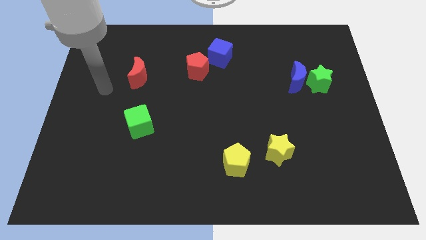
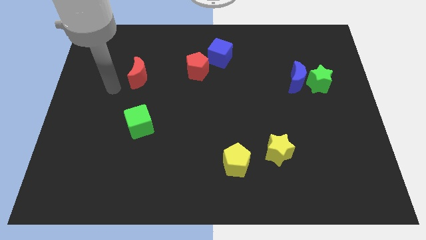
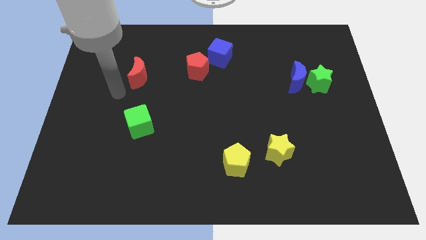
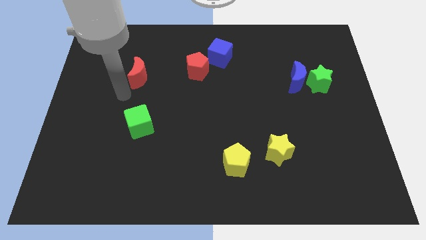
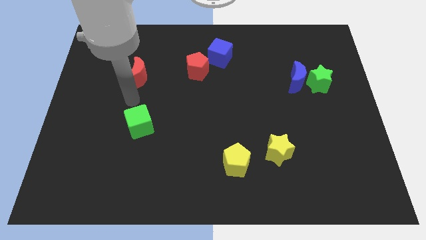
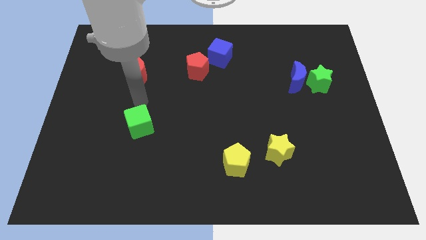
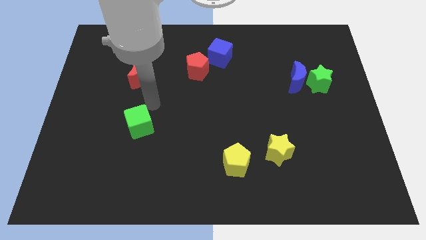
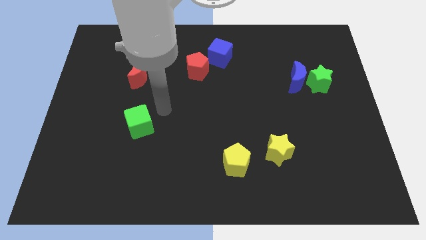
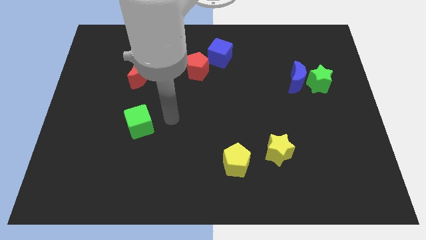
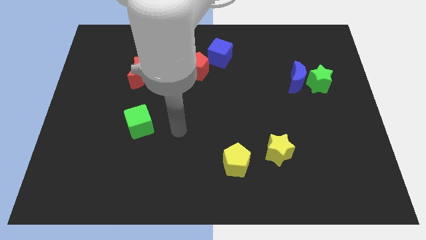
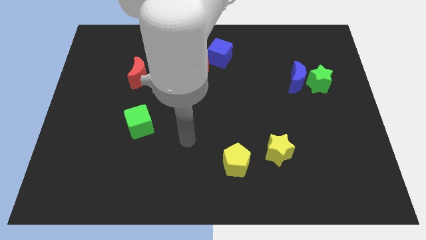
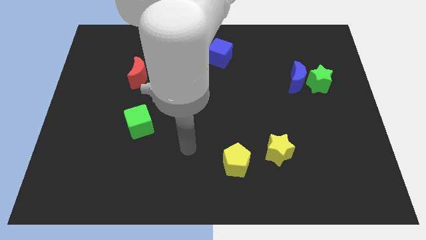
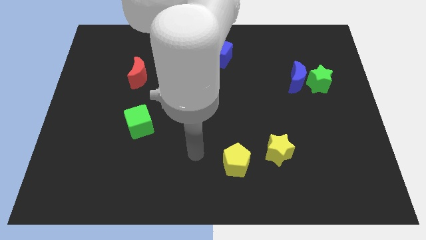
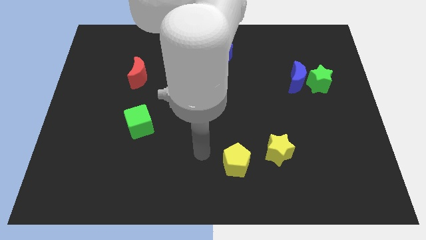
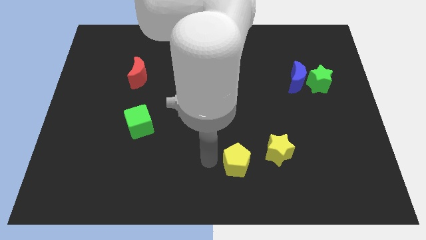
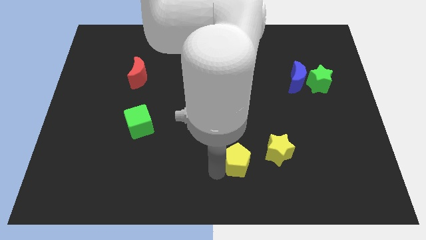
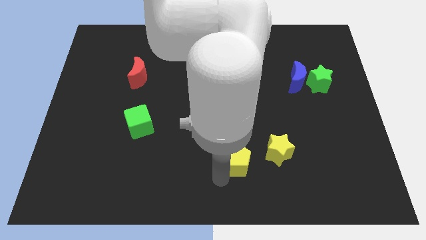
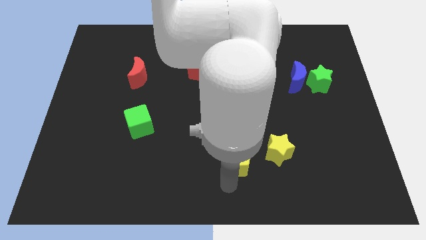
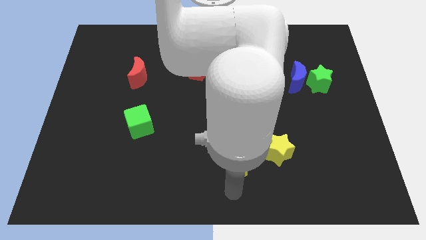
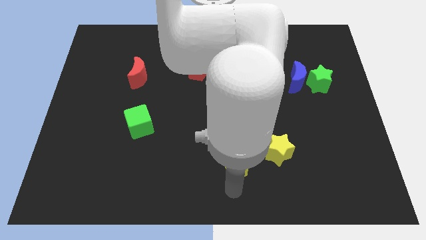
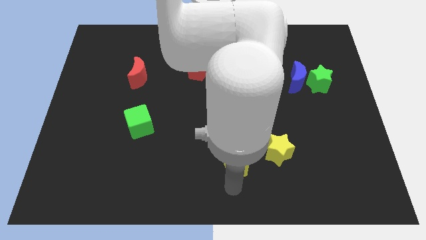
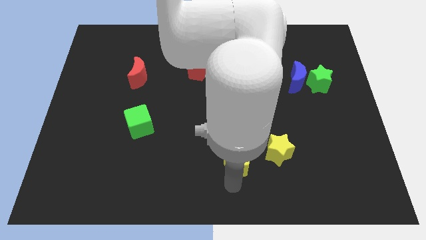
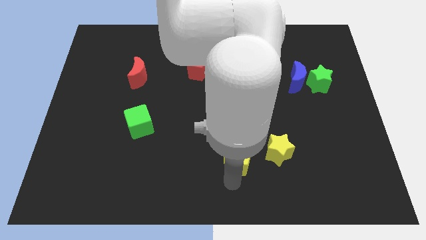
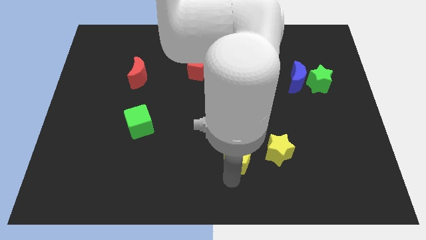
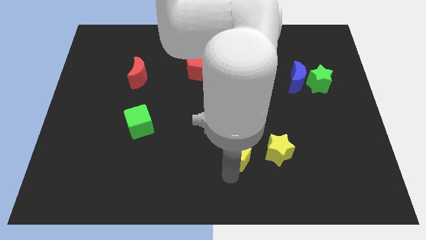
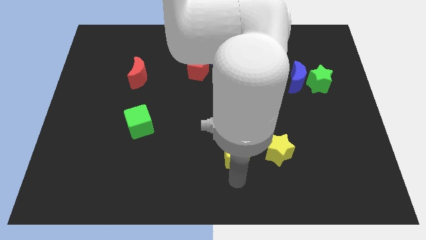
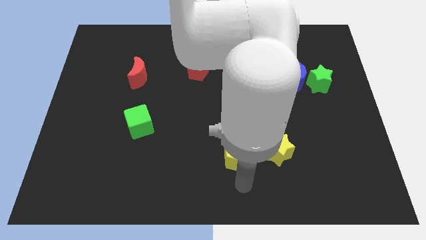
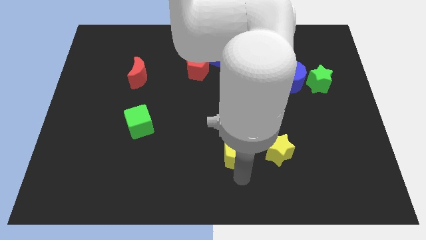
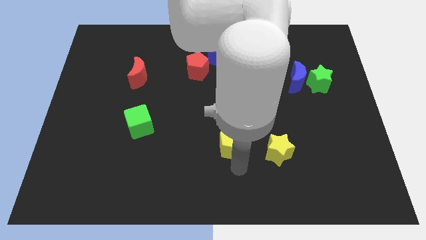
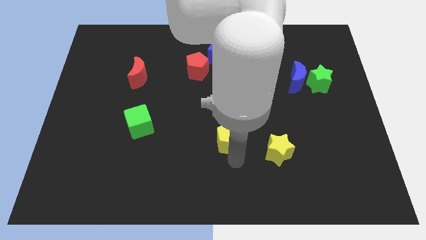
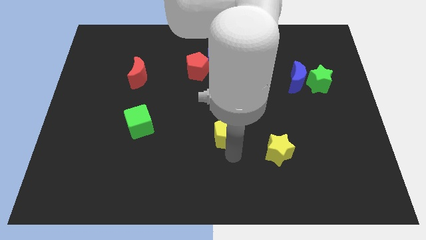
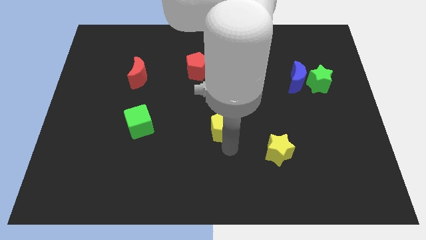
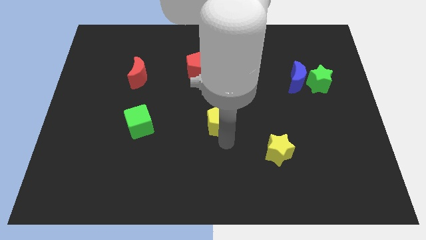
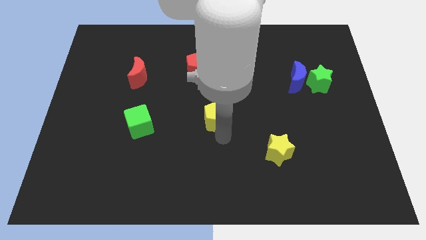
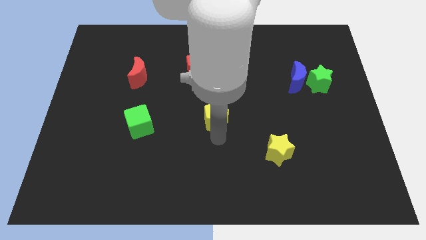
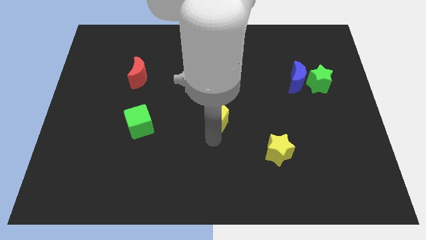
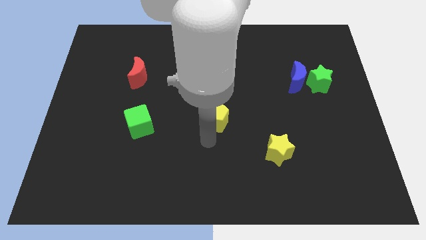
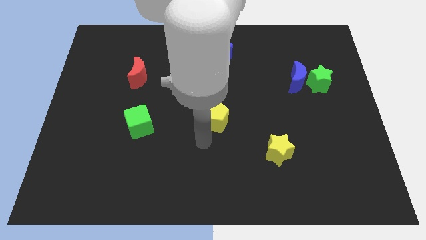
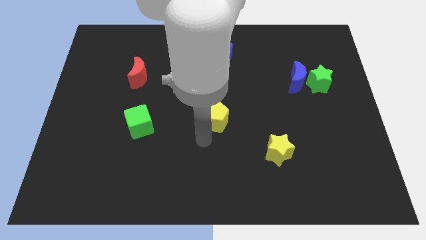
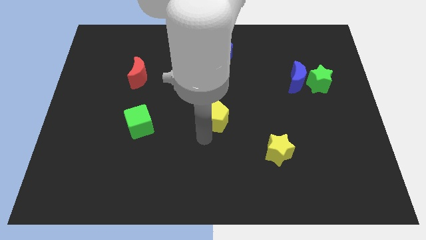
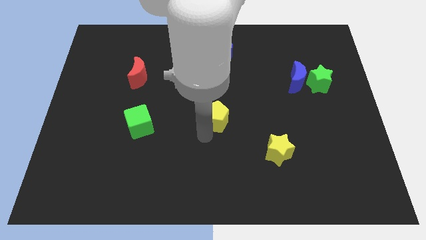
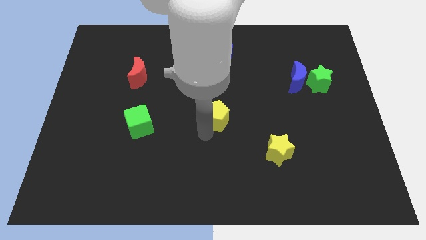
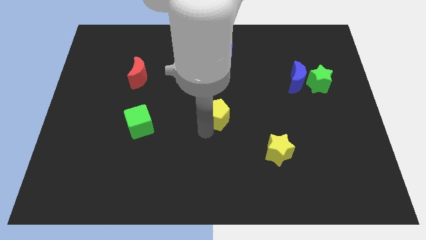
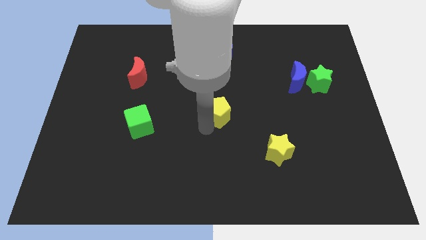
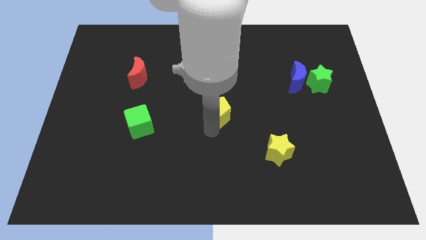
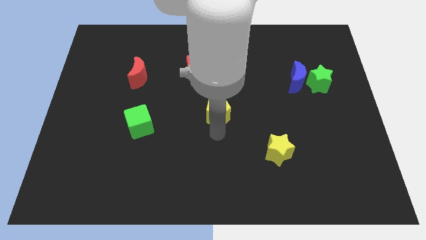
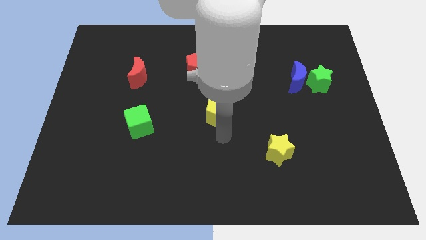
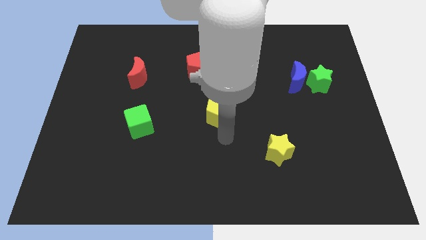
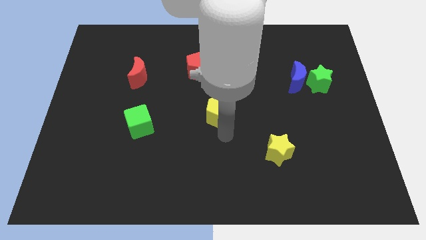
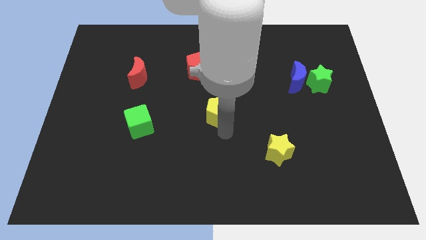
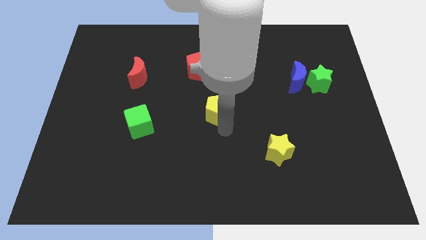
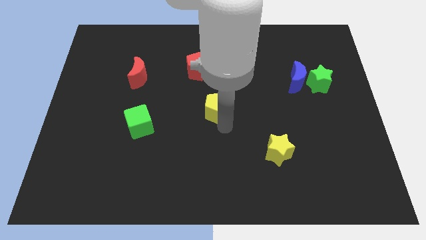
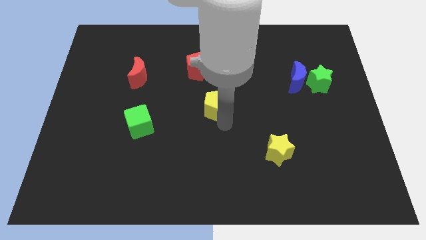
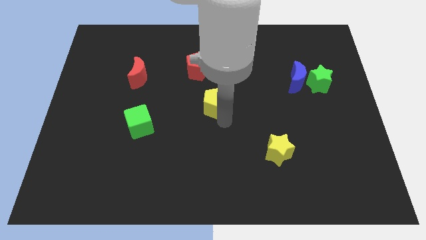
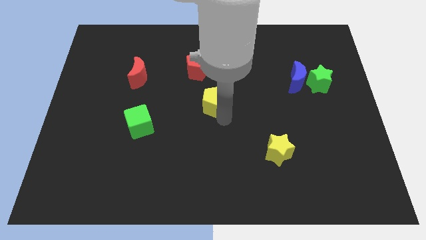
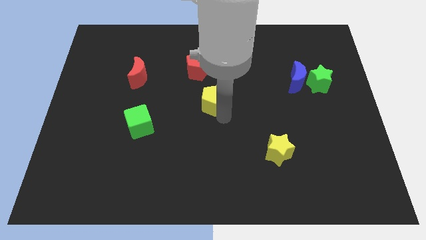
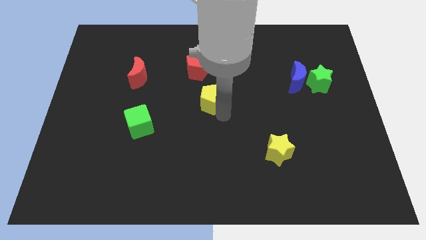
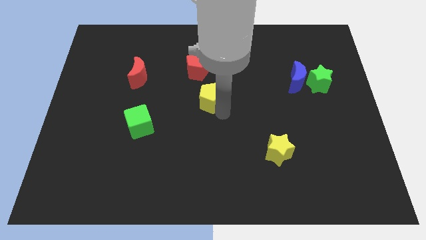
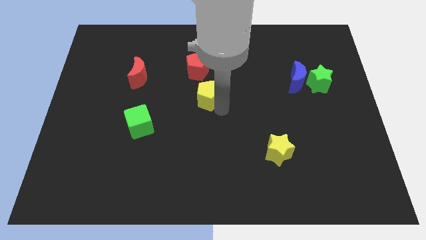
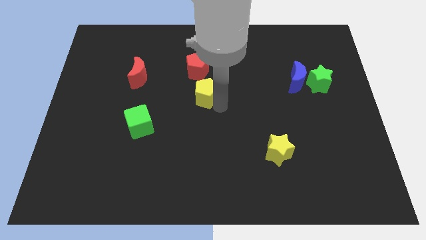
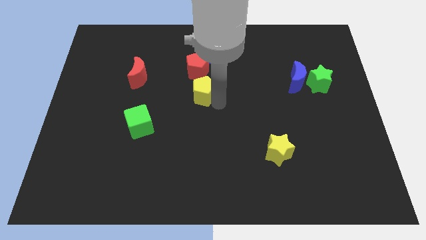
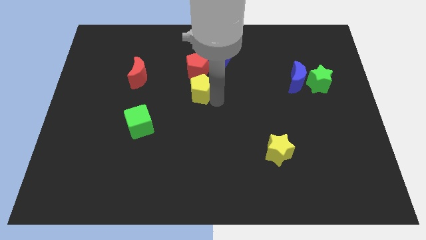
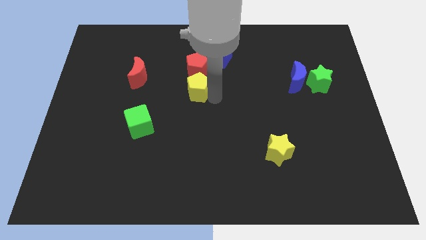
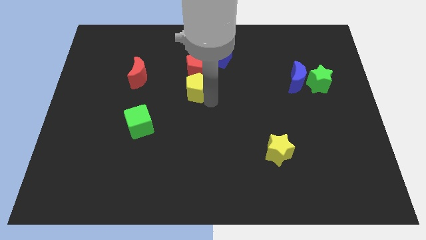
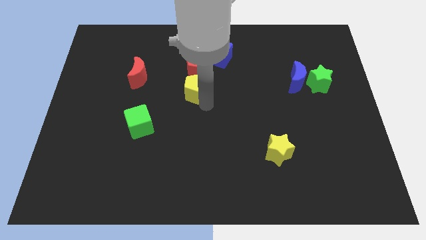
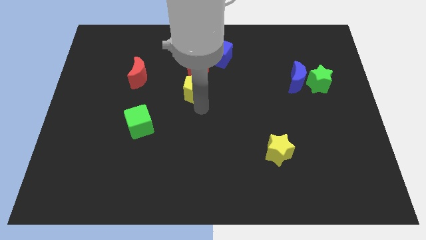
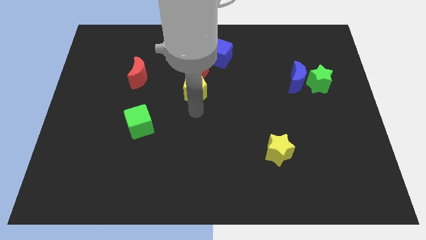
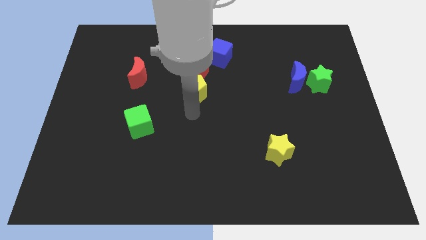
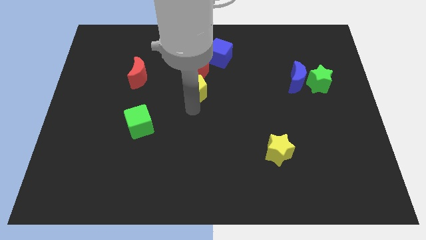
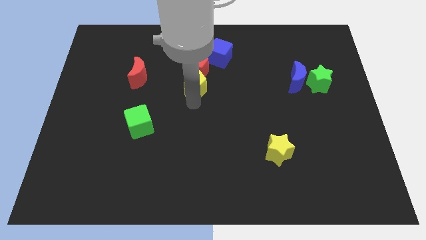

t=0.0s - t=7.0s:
slide the yellow pentagon to the red pentagon
